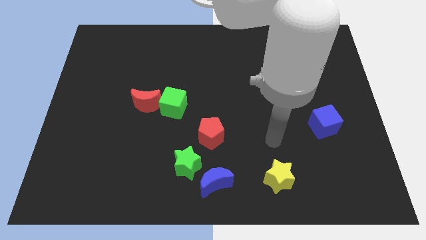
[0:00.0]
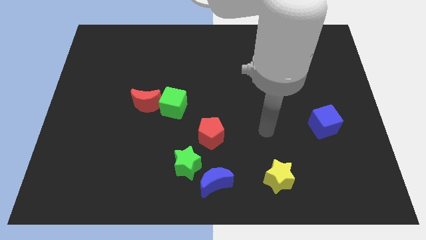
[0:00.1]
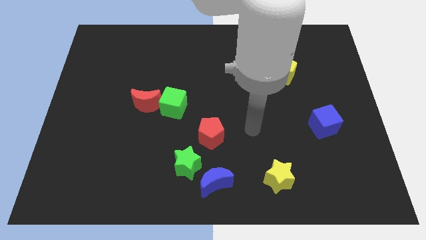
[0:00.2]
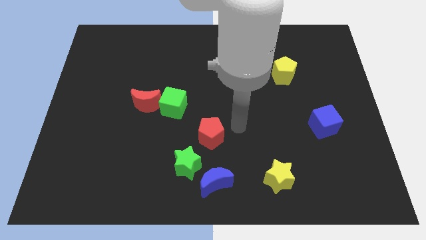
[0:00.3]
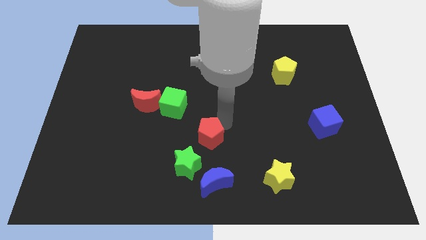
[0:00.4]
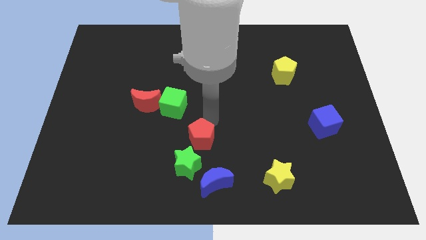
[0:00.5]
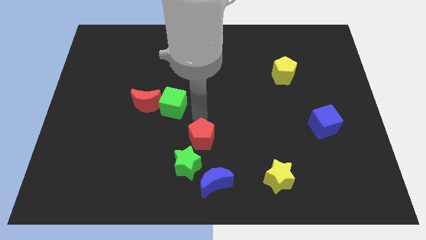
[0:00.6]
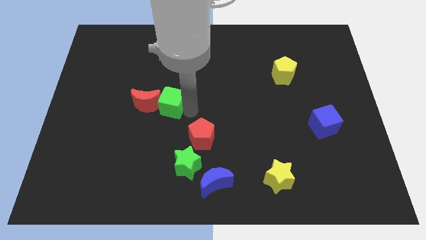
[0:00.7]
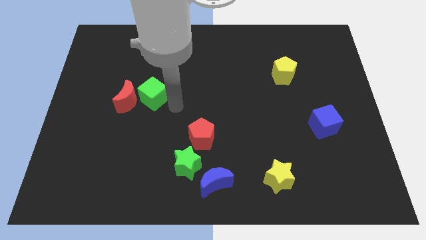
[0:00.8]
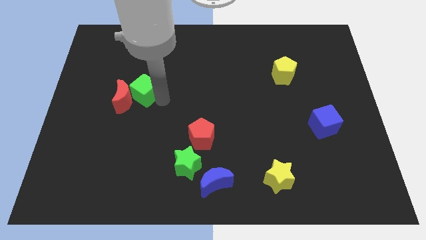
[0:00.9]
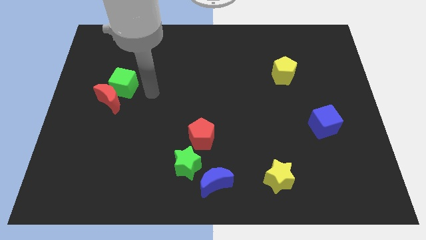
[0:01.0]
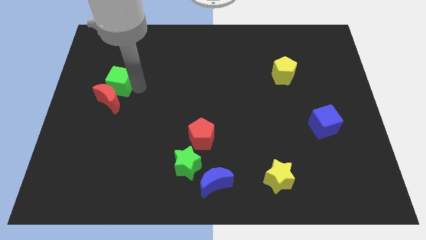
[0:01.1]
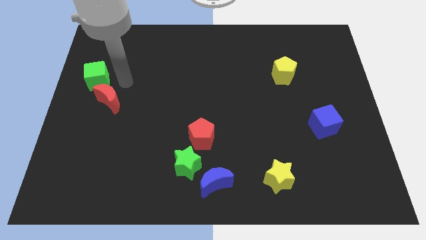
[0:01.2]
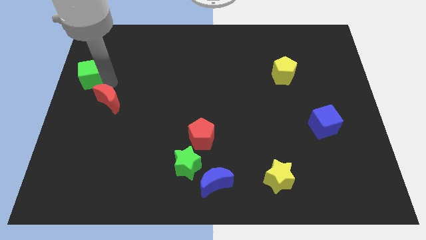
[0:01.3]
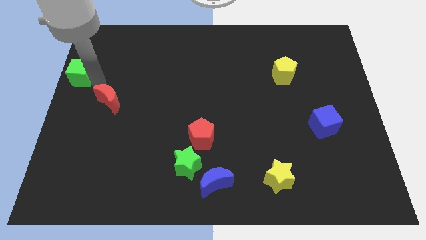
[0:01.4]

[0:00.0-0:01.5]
pull the red moon apart from the green cube

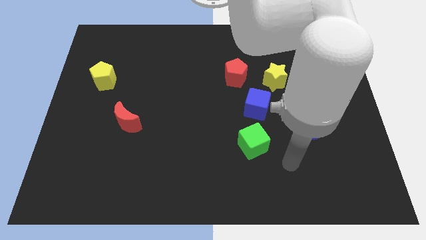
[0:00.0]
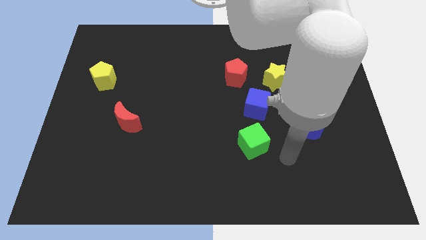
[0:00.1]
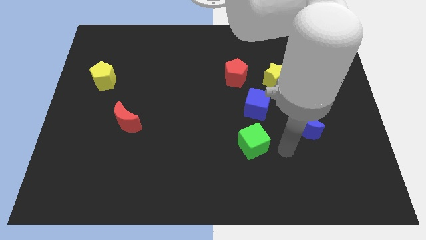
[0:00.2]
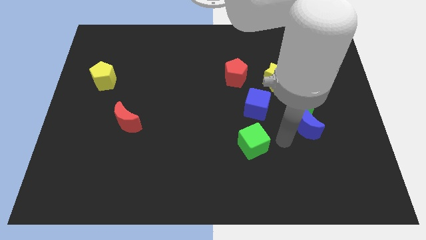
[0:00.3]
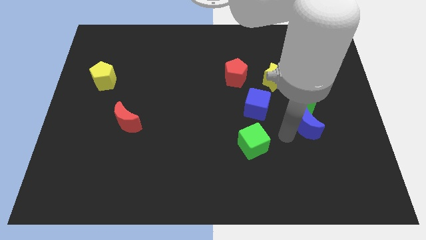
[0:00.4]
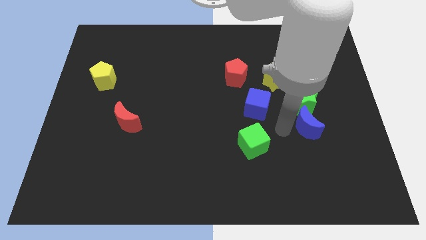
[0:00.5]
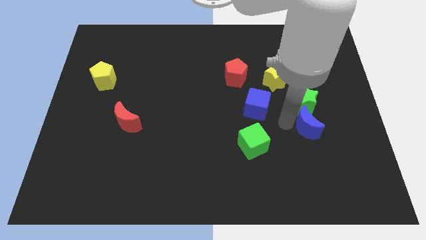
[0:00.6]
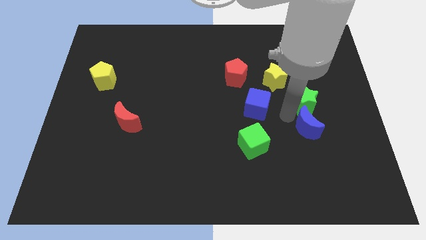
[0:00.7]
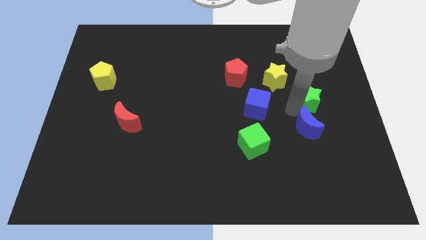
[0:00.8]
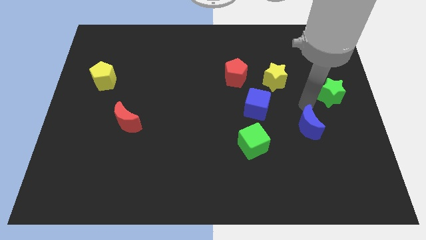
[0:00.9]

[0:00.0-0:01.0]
pull the blue moon apart from the green star

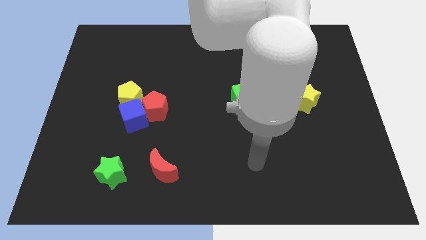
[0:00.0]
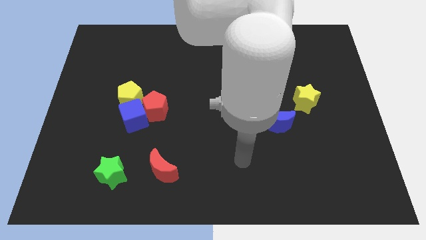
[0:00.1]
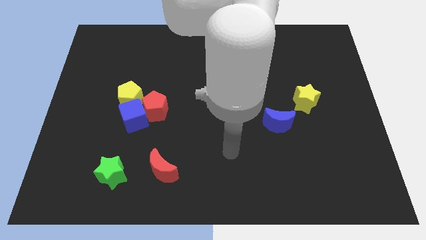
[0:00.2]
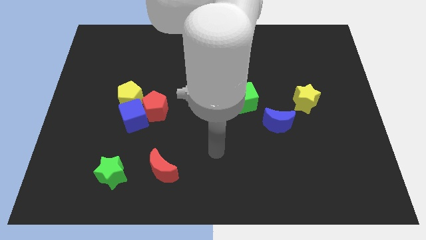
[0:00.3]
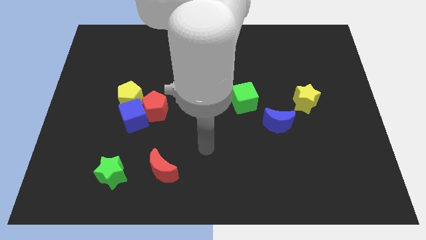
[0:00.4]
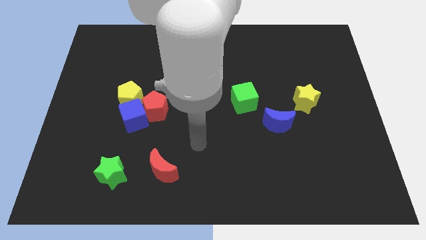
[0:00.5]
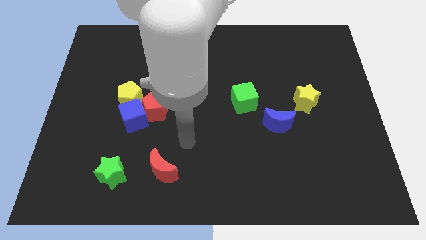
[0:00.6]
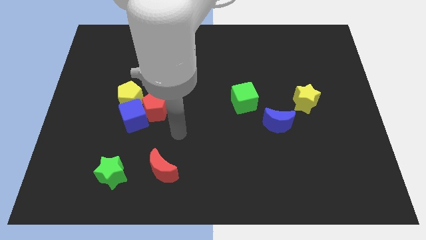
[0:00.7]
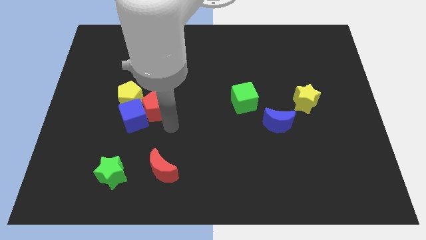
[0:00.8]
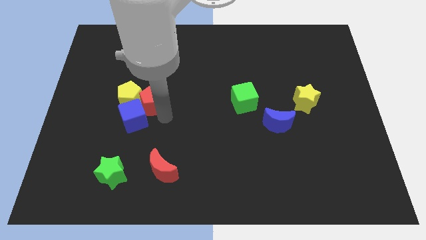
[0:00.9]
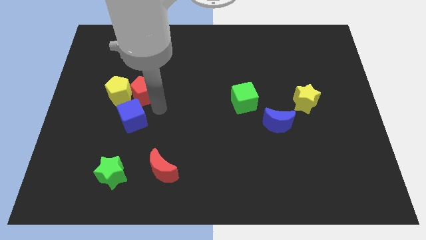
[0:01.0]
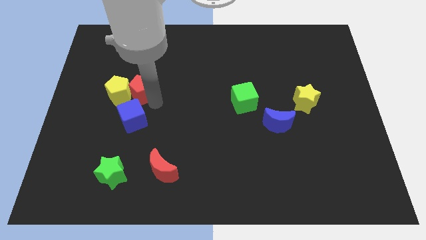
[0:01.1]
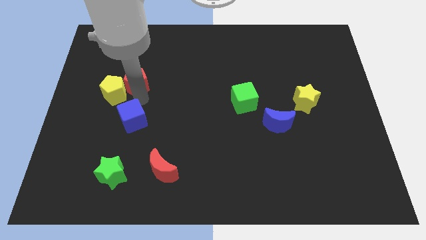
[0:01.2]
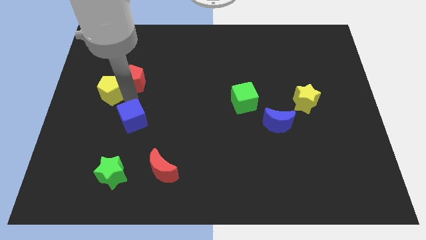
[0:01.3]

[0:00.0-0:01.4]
pull the blue cube apart from the red pentagon and yellow pentagon

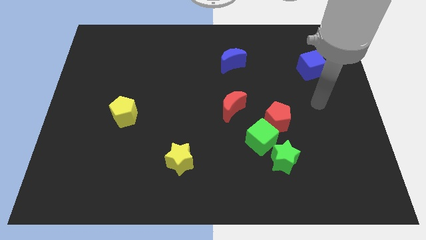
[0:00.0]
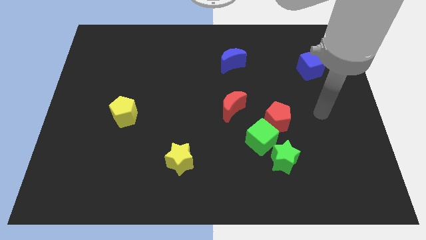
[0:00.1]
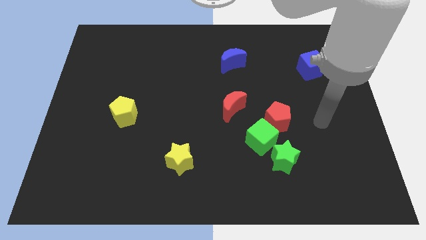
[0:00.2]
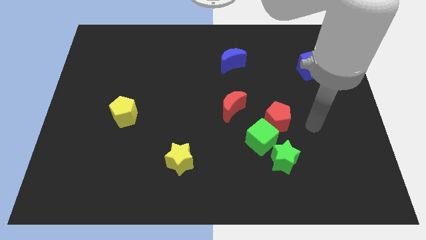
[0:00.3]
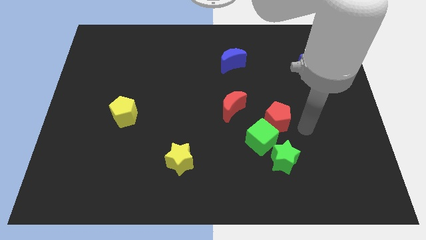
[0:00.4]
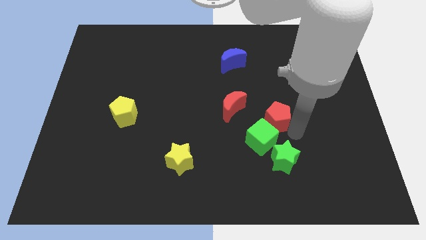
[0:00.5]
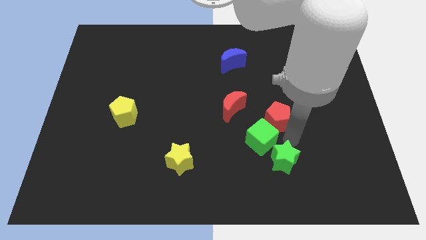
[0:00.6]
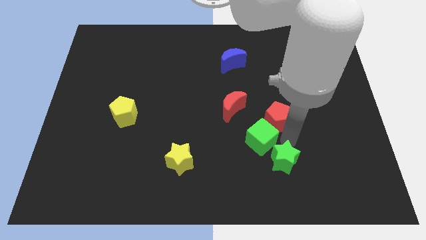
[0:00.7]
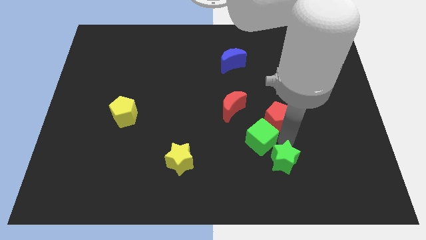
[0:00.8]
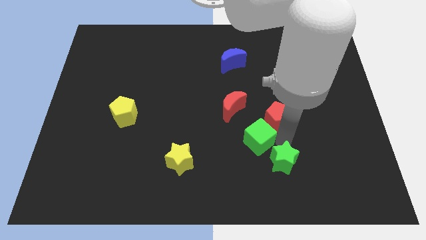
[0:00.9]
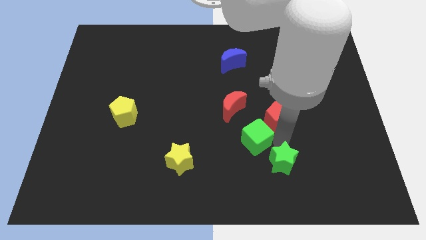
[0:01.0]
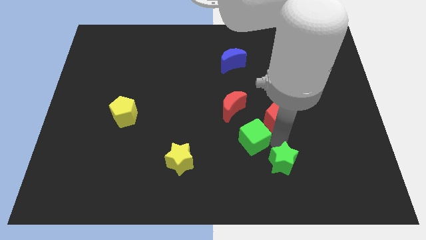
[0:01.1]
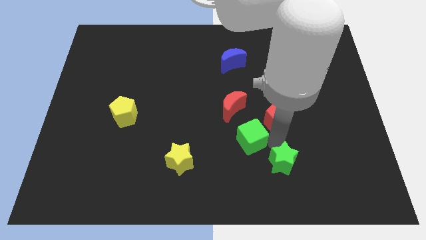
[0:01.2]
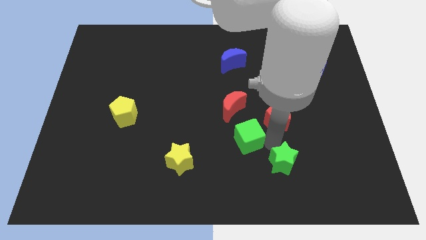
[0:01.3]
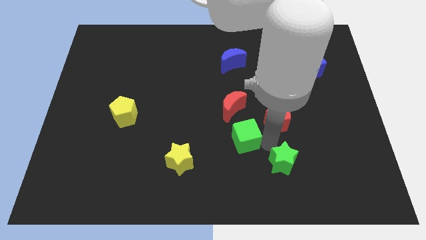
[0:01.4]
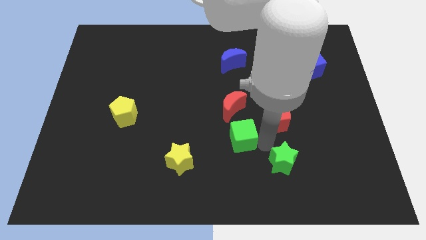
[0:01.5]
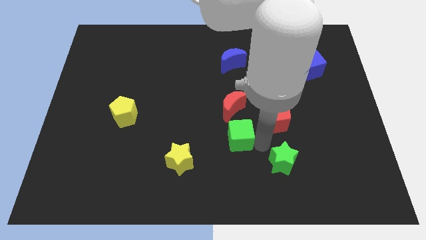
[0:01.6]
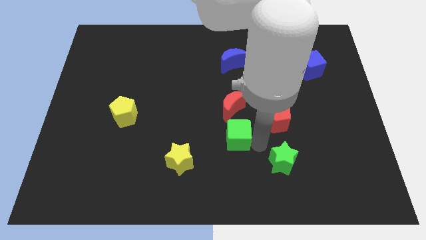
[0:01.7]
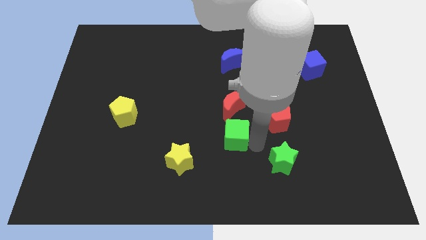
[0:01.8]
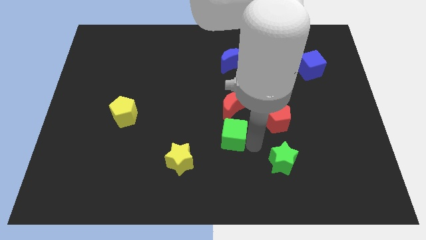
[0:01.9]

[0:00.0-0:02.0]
move the green cube away from the red pentagon and green star

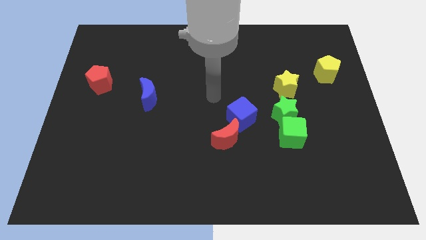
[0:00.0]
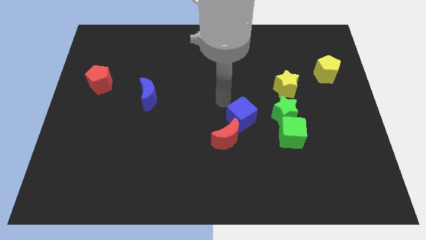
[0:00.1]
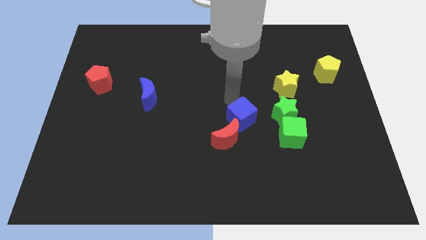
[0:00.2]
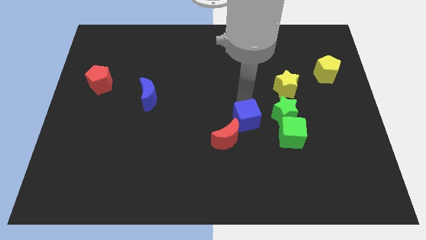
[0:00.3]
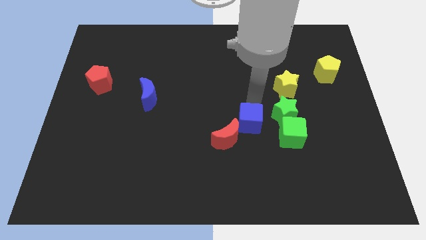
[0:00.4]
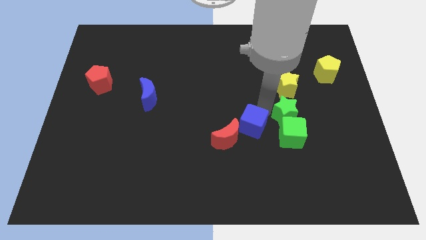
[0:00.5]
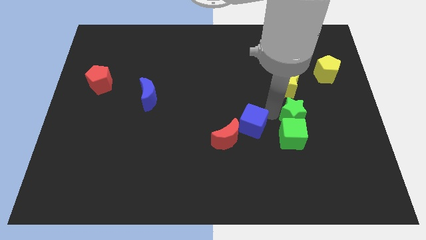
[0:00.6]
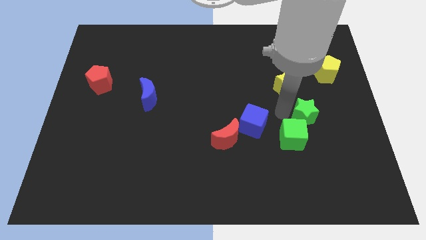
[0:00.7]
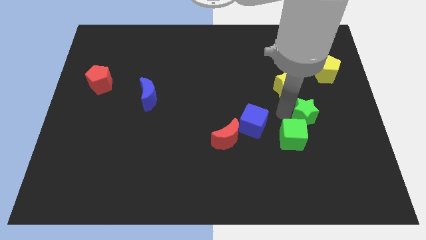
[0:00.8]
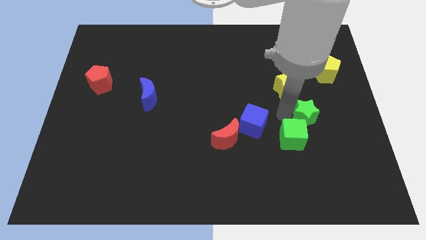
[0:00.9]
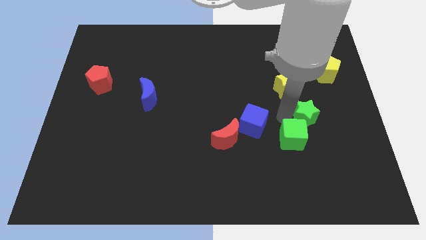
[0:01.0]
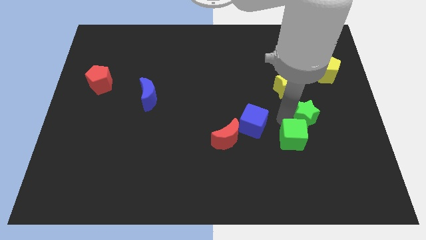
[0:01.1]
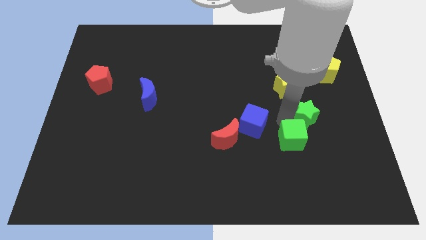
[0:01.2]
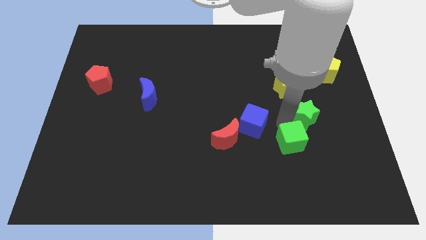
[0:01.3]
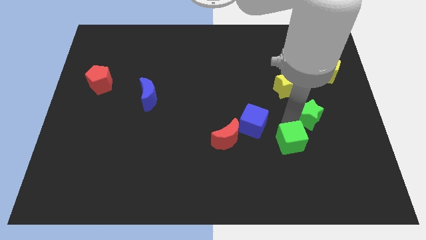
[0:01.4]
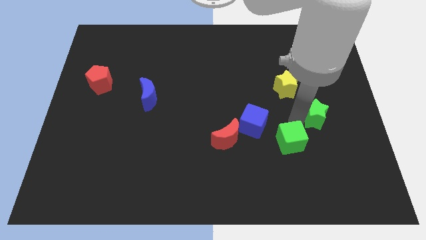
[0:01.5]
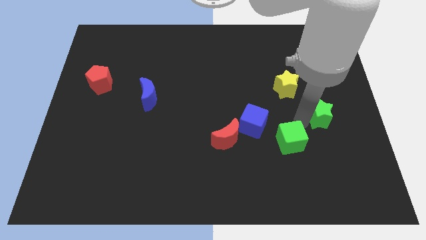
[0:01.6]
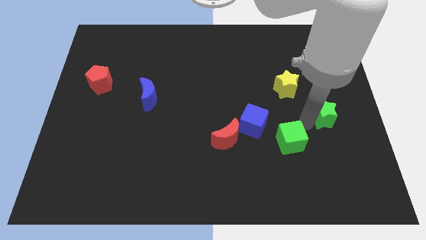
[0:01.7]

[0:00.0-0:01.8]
move the green cube away from the green star

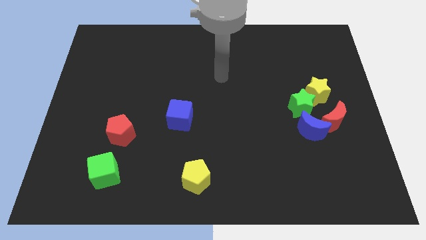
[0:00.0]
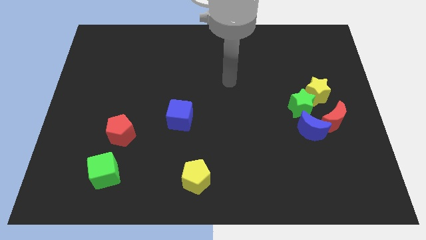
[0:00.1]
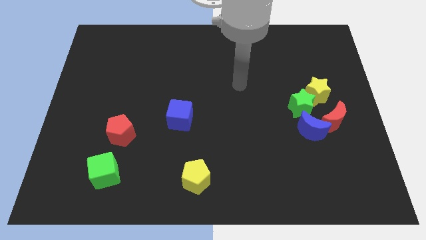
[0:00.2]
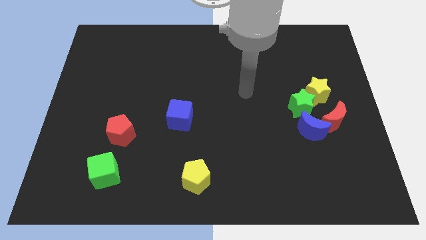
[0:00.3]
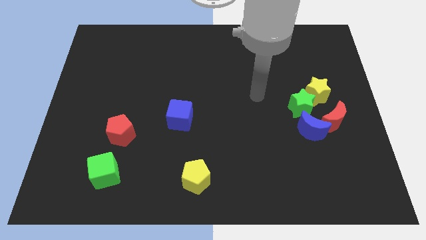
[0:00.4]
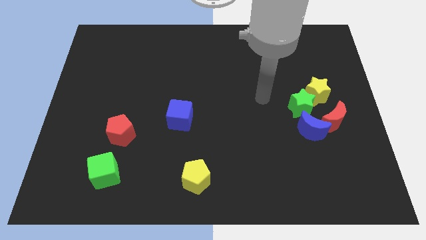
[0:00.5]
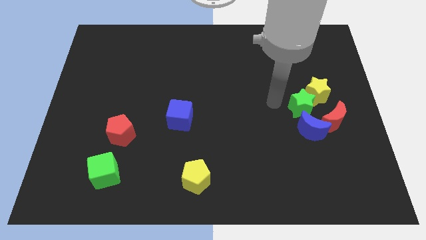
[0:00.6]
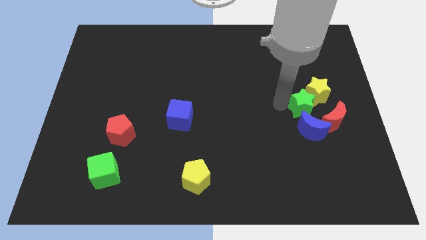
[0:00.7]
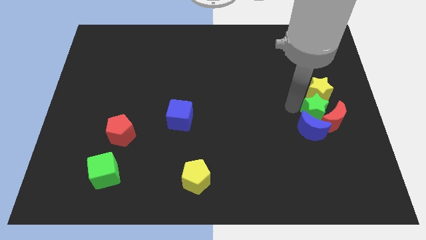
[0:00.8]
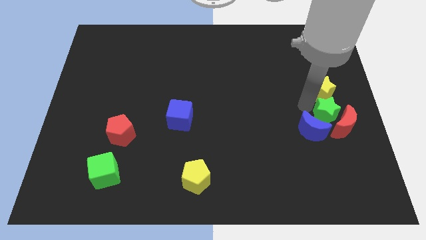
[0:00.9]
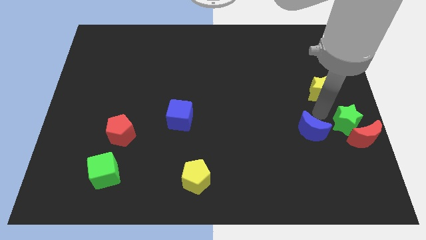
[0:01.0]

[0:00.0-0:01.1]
pull the blue moon apart from the red moon and green star

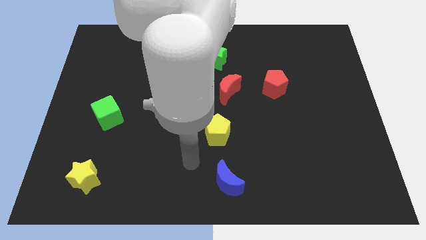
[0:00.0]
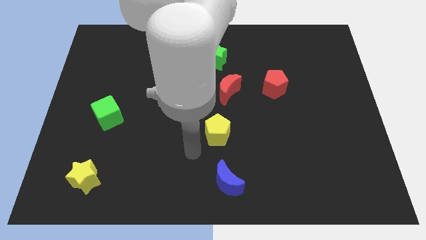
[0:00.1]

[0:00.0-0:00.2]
separate the blue cube from the green star
